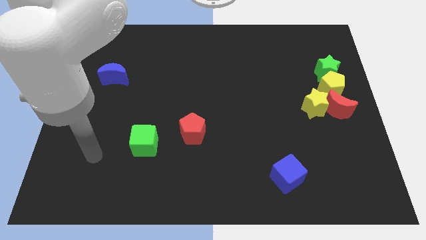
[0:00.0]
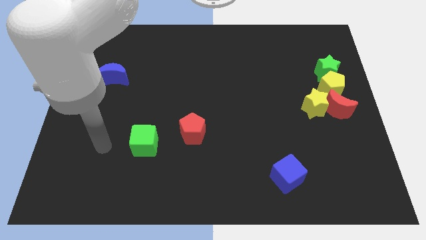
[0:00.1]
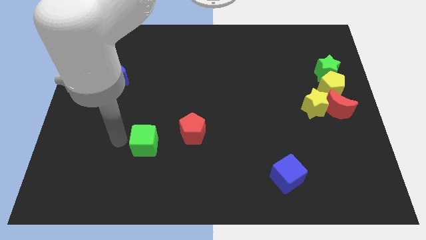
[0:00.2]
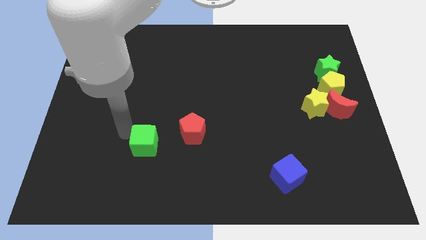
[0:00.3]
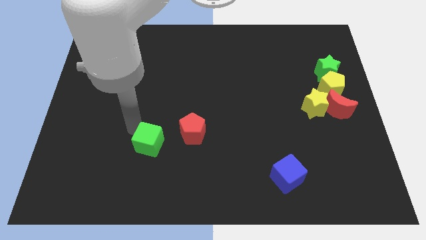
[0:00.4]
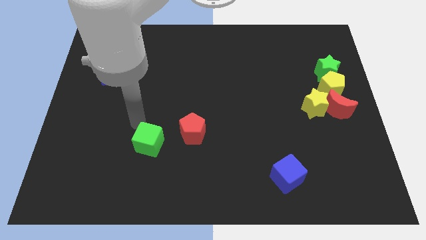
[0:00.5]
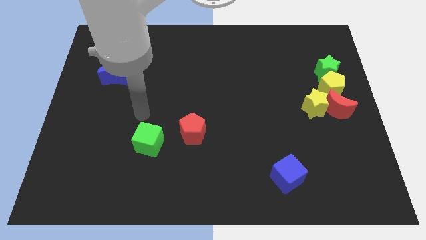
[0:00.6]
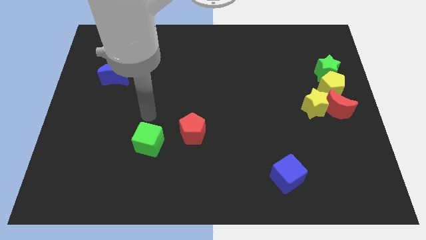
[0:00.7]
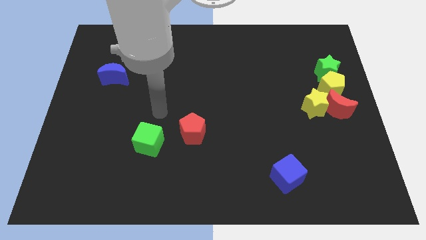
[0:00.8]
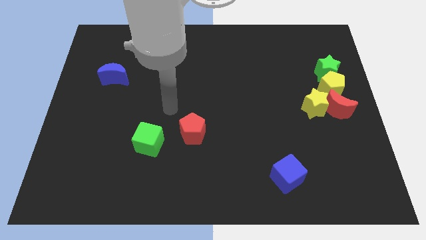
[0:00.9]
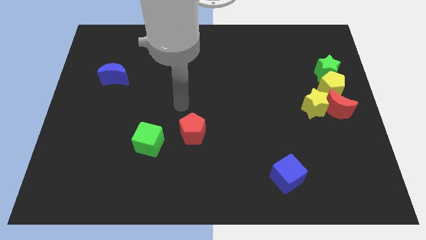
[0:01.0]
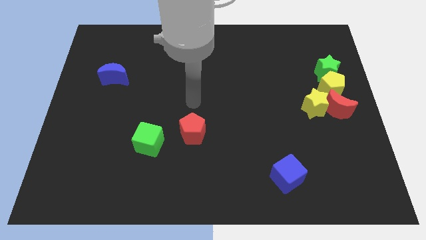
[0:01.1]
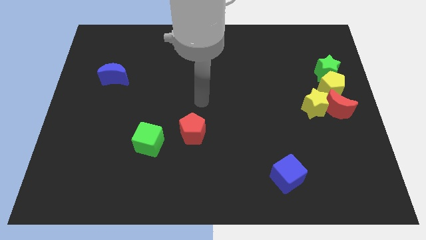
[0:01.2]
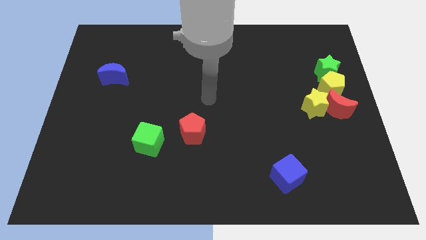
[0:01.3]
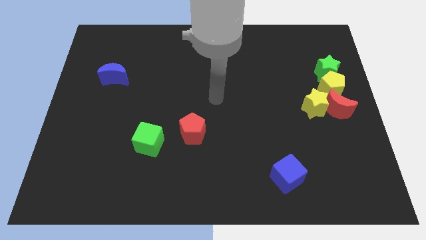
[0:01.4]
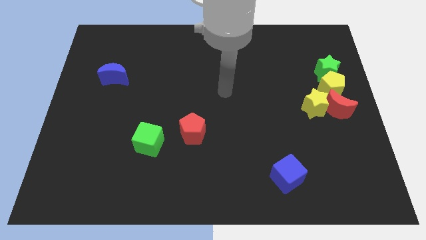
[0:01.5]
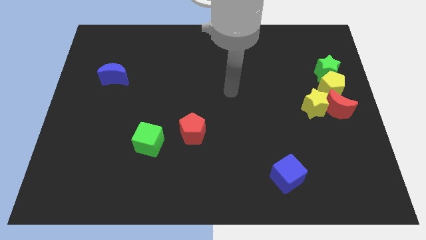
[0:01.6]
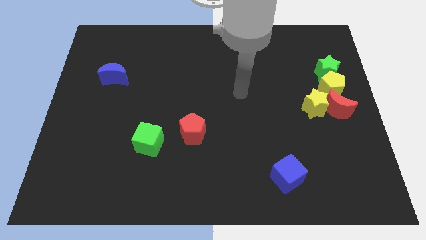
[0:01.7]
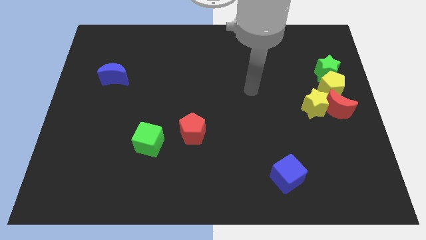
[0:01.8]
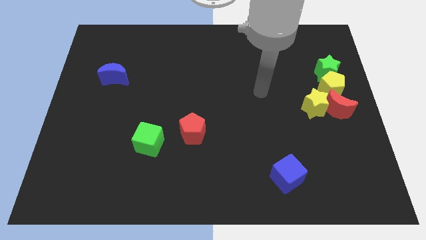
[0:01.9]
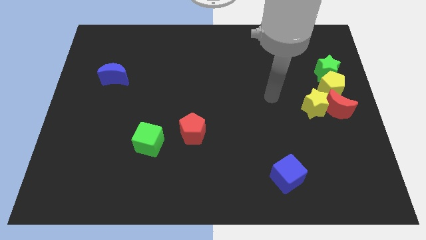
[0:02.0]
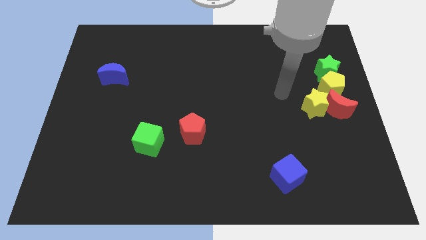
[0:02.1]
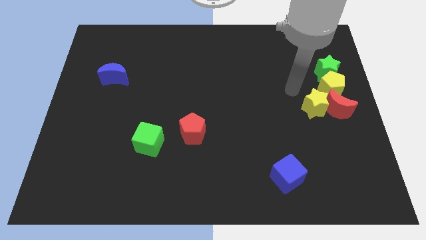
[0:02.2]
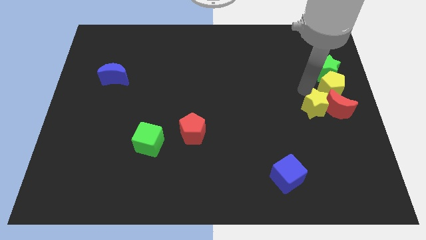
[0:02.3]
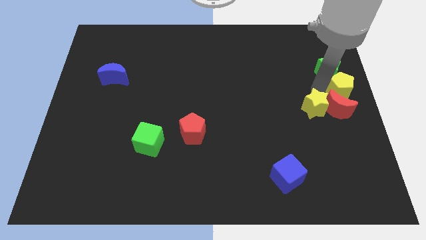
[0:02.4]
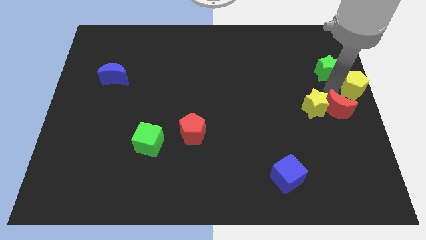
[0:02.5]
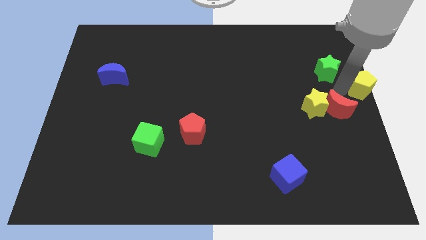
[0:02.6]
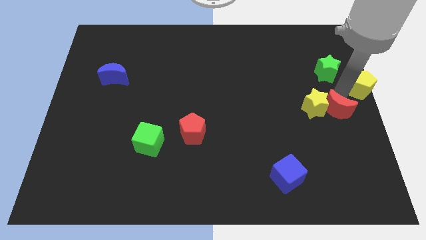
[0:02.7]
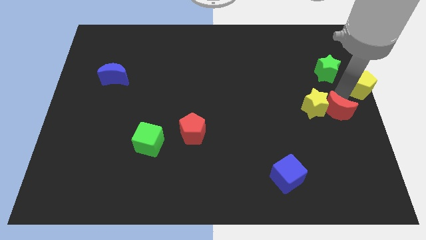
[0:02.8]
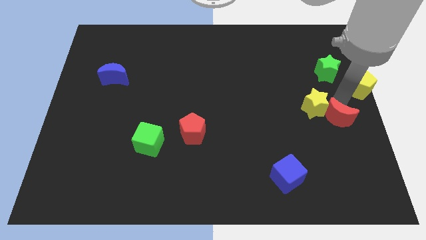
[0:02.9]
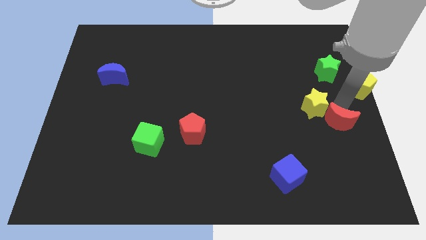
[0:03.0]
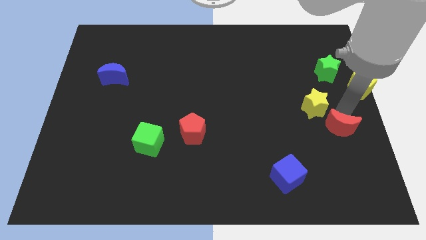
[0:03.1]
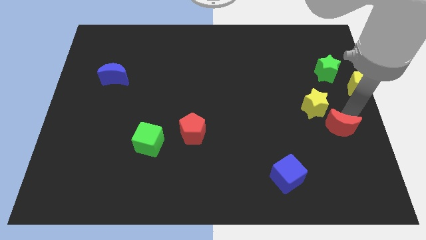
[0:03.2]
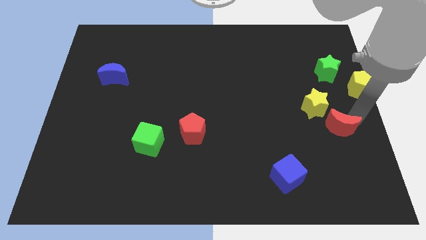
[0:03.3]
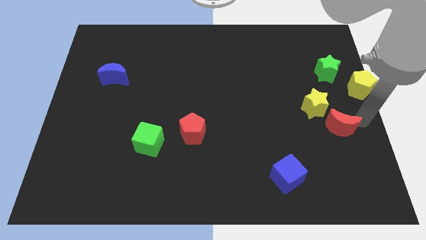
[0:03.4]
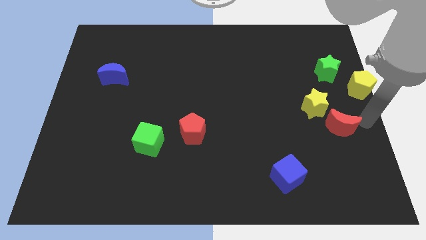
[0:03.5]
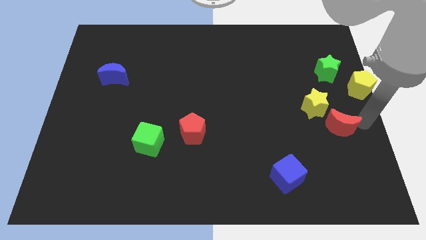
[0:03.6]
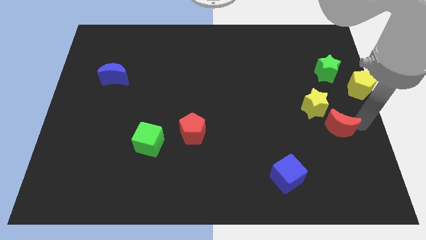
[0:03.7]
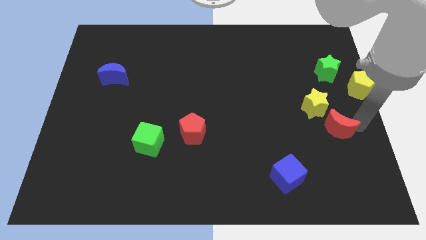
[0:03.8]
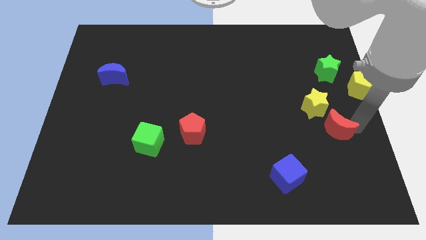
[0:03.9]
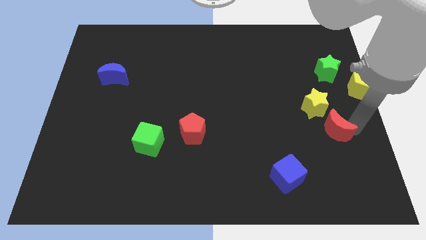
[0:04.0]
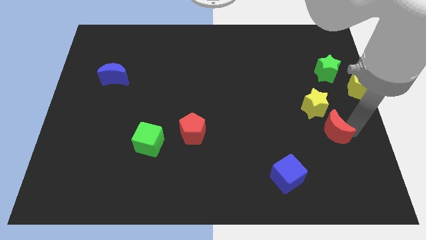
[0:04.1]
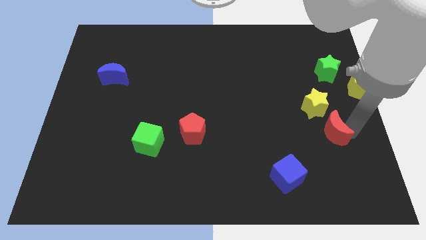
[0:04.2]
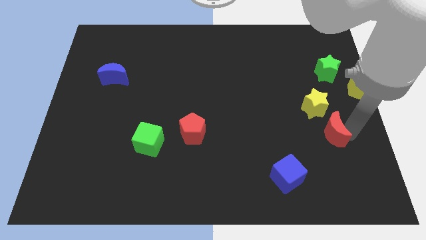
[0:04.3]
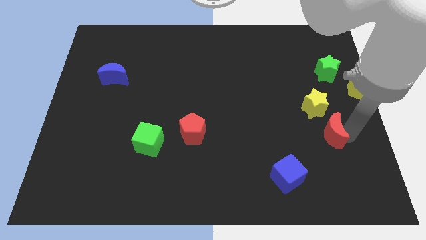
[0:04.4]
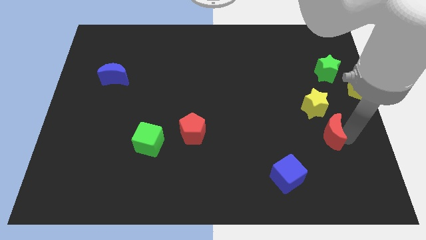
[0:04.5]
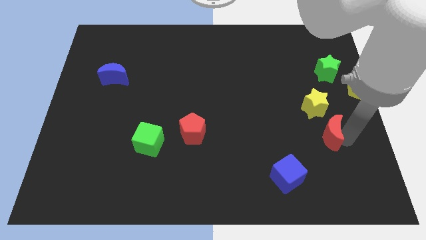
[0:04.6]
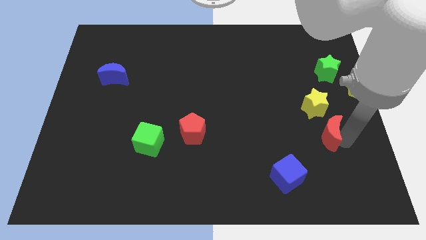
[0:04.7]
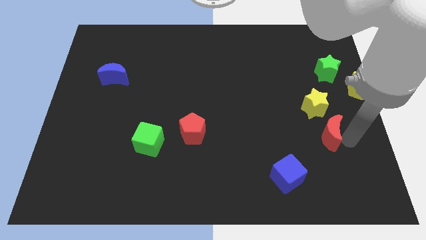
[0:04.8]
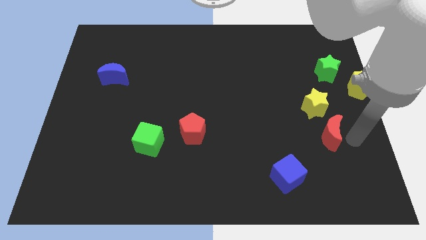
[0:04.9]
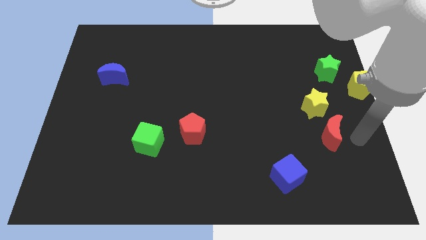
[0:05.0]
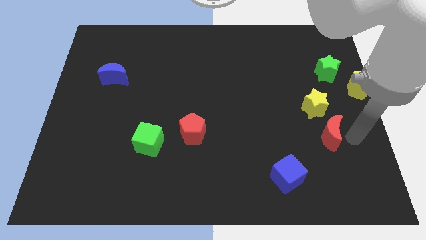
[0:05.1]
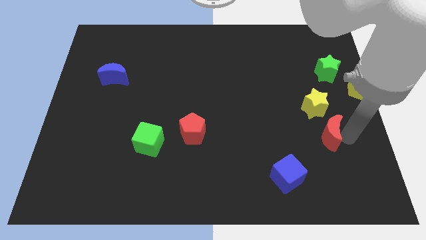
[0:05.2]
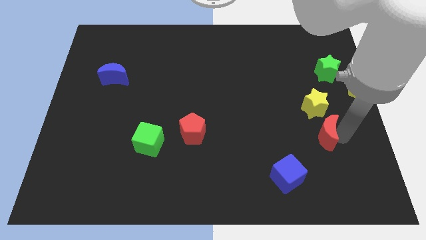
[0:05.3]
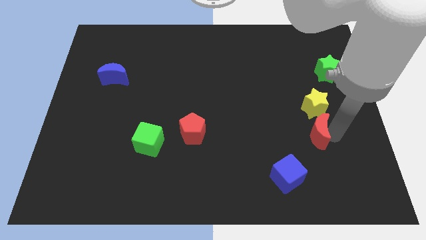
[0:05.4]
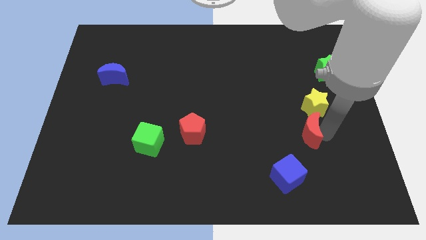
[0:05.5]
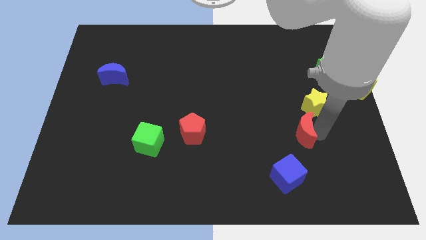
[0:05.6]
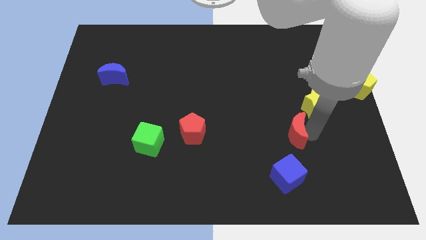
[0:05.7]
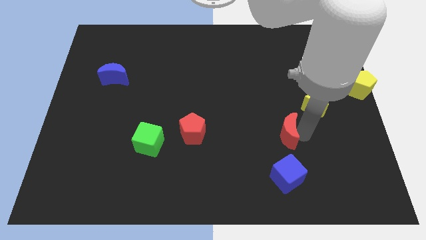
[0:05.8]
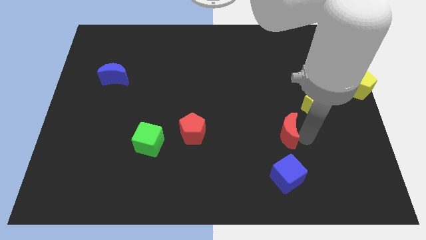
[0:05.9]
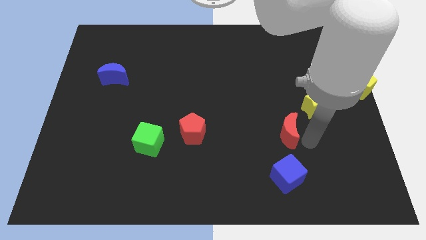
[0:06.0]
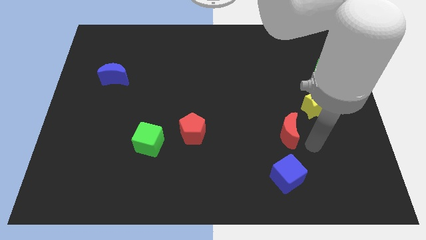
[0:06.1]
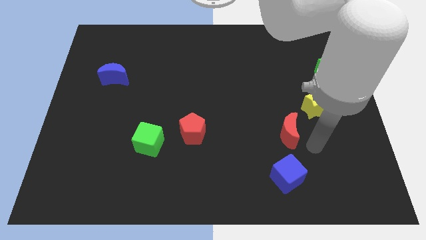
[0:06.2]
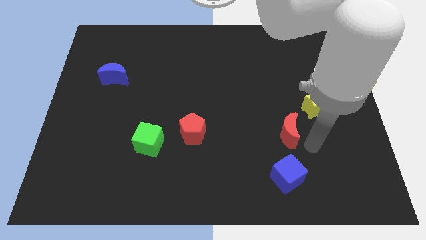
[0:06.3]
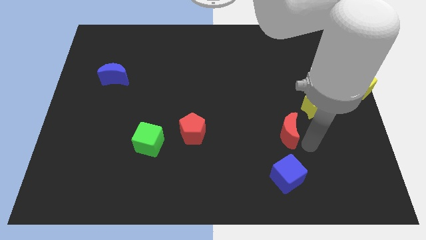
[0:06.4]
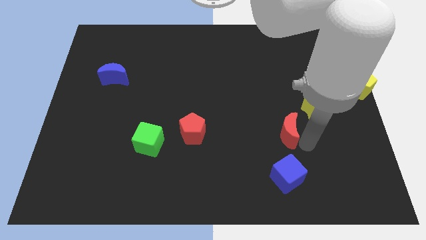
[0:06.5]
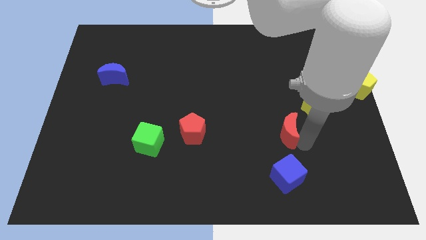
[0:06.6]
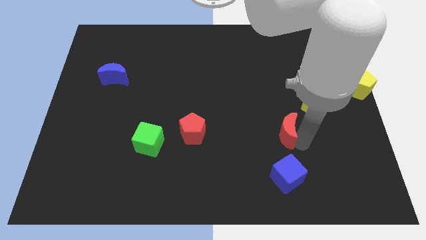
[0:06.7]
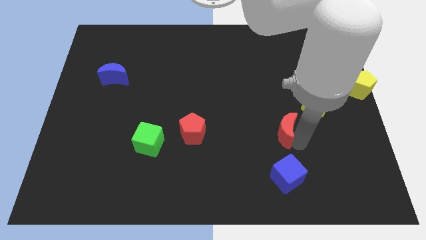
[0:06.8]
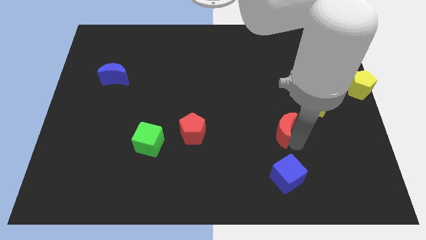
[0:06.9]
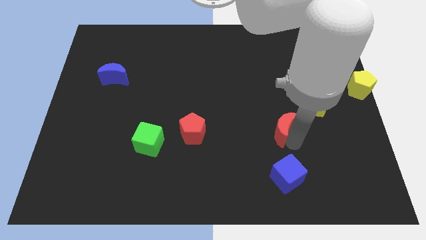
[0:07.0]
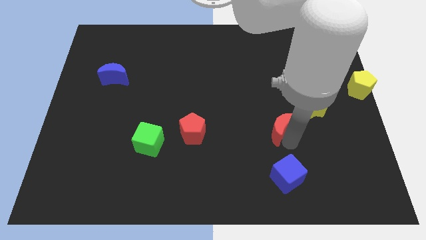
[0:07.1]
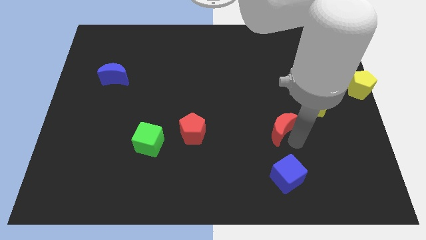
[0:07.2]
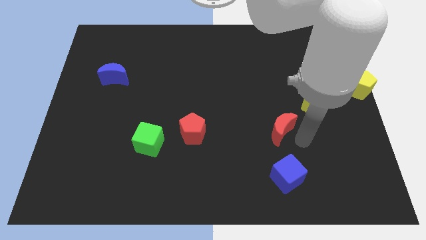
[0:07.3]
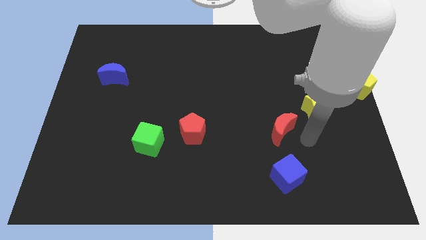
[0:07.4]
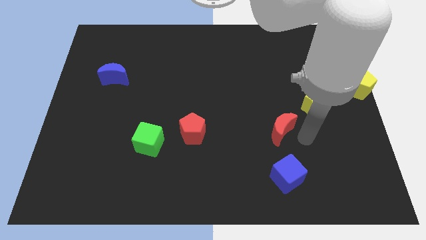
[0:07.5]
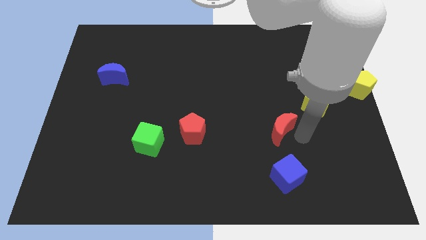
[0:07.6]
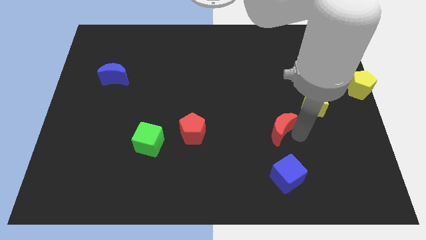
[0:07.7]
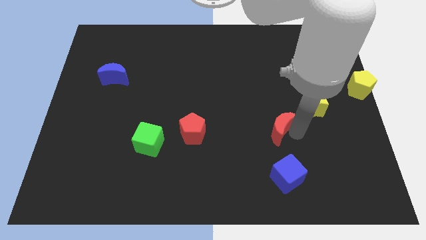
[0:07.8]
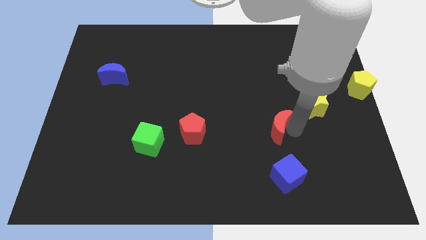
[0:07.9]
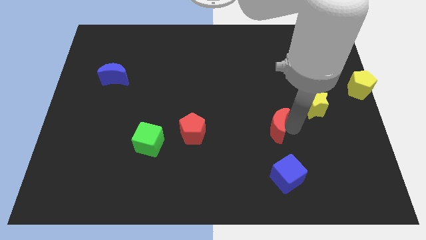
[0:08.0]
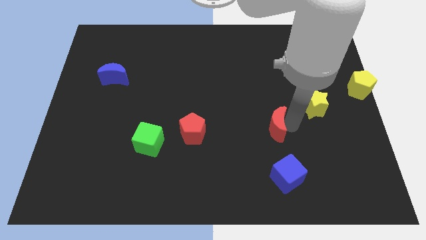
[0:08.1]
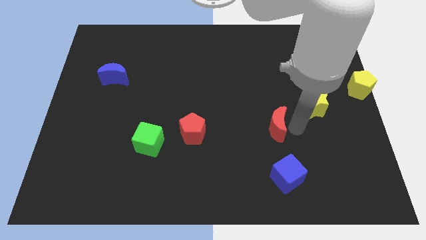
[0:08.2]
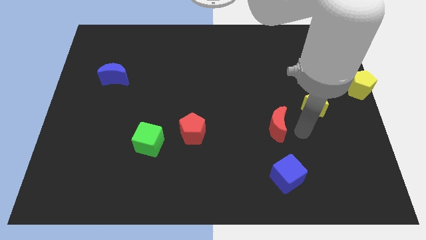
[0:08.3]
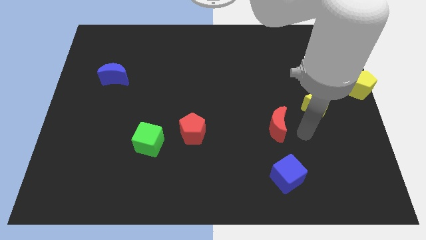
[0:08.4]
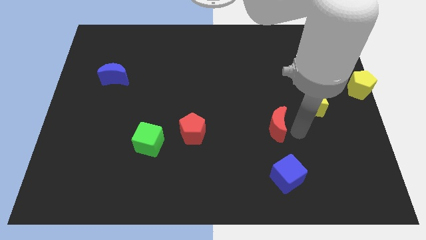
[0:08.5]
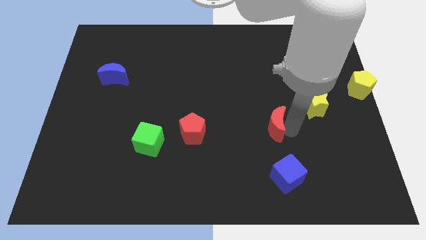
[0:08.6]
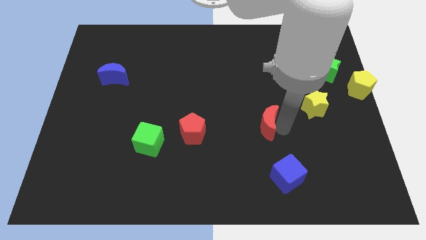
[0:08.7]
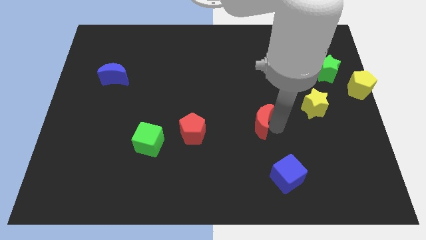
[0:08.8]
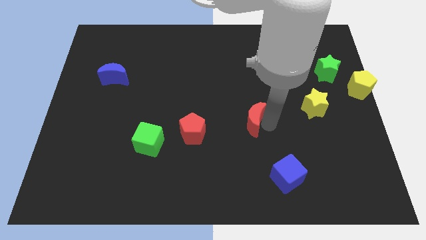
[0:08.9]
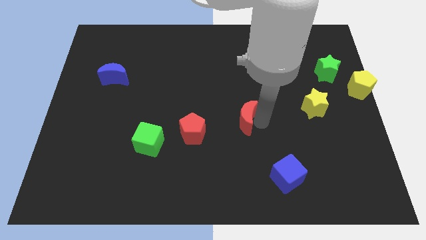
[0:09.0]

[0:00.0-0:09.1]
move the red moon to the left
